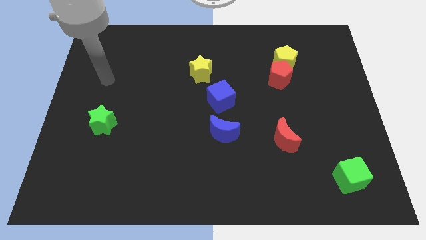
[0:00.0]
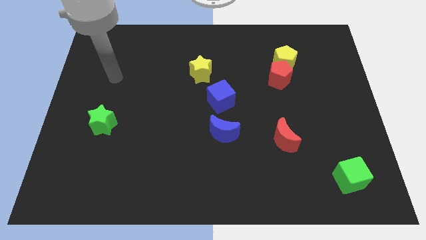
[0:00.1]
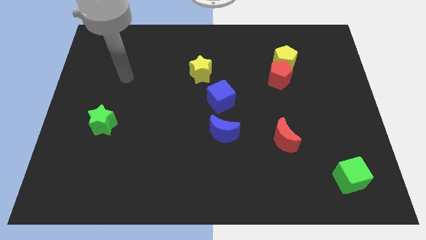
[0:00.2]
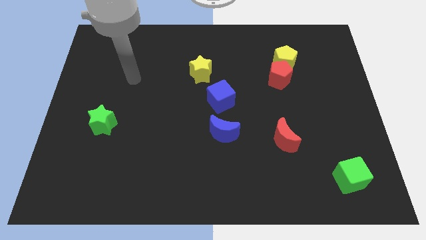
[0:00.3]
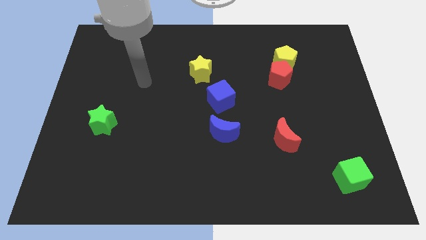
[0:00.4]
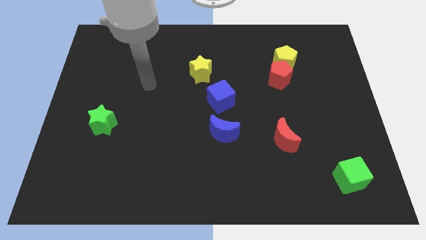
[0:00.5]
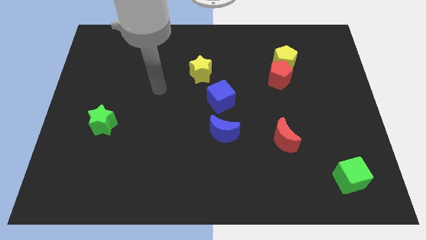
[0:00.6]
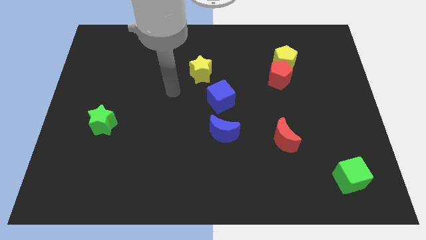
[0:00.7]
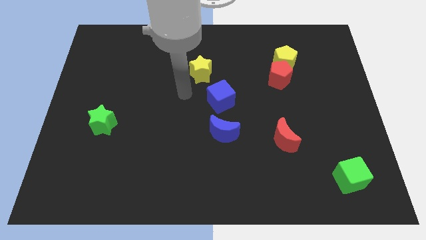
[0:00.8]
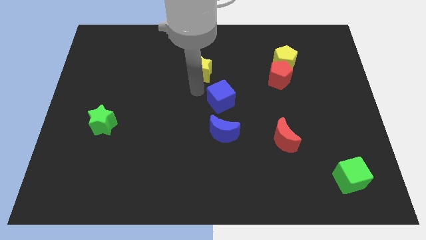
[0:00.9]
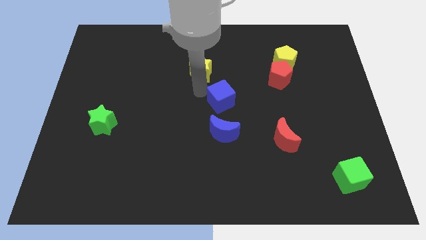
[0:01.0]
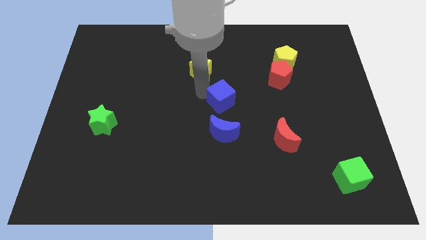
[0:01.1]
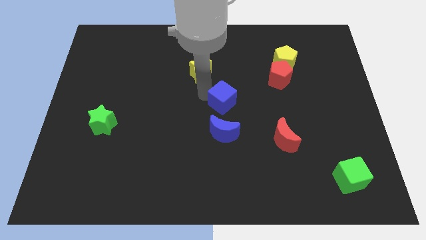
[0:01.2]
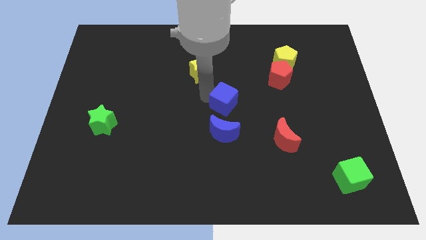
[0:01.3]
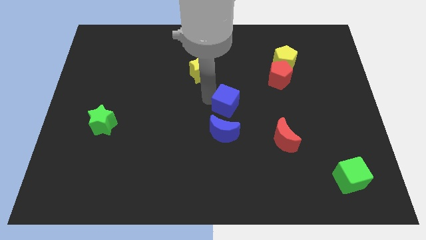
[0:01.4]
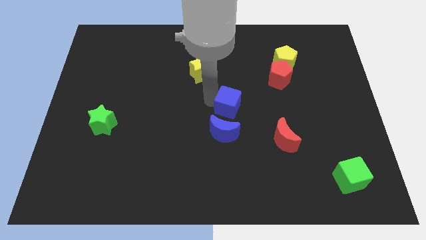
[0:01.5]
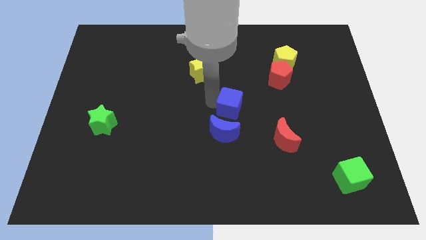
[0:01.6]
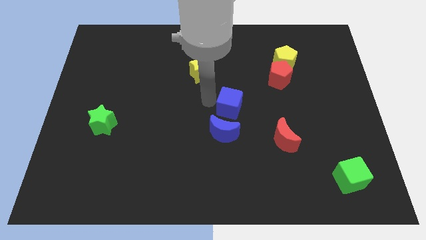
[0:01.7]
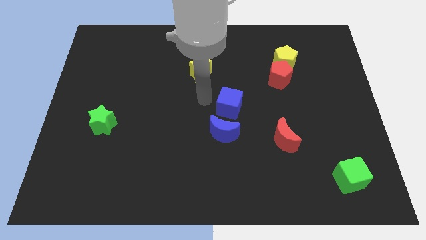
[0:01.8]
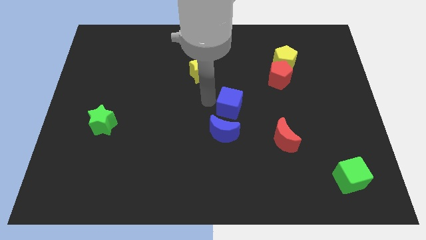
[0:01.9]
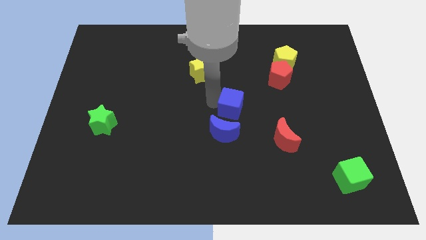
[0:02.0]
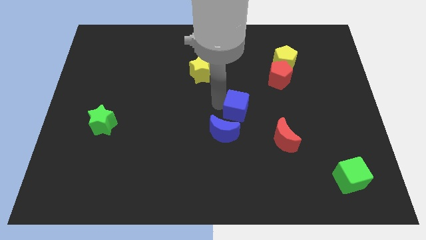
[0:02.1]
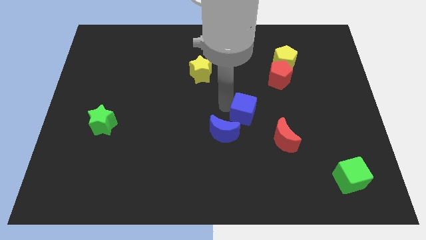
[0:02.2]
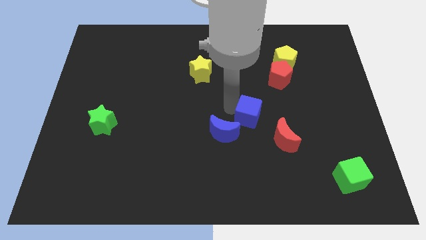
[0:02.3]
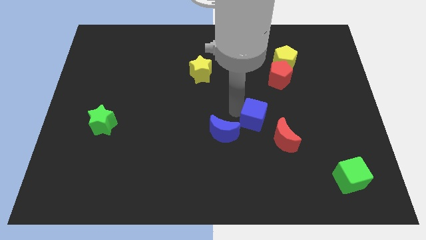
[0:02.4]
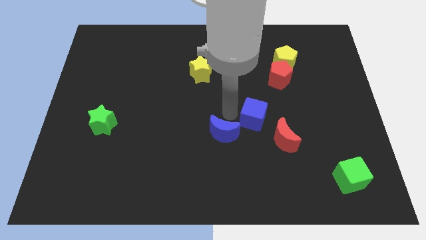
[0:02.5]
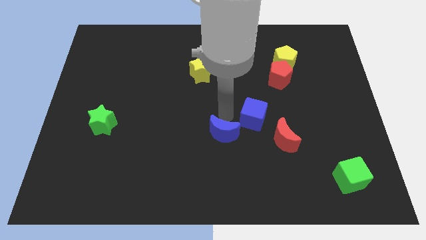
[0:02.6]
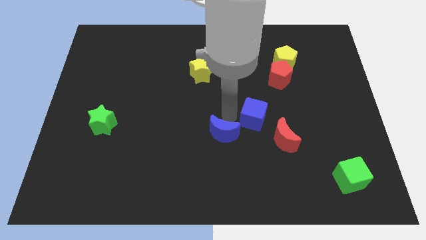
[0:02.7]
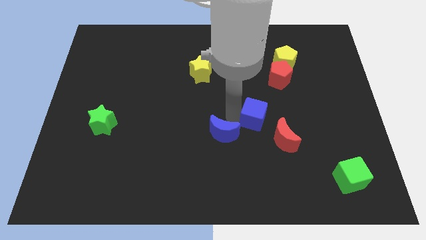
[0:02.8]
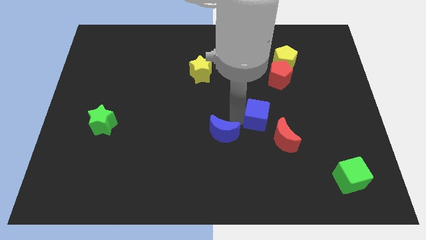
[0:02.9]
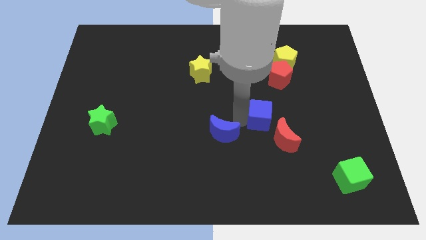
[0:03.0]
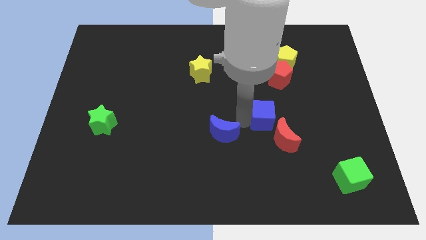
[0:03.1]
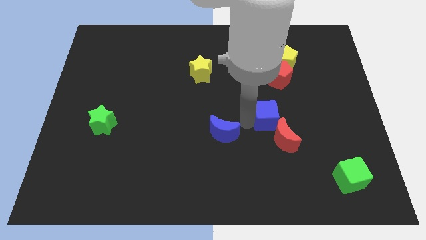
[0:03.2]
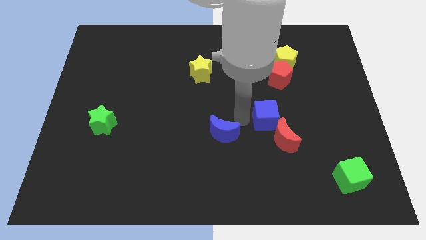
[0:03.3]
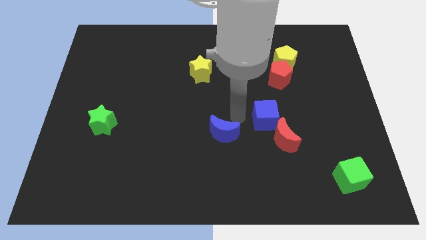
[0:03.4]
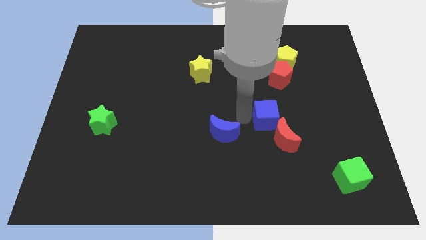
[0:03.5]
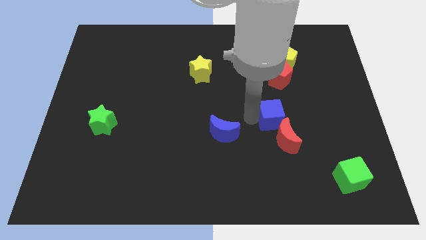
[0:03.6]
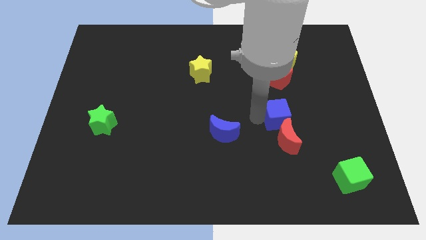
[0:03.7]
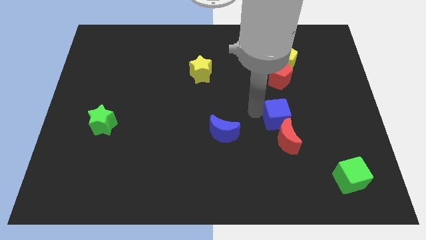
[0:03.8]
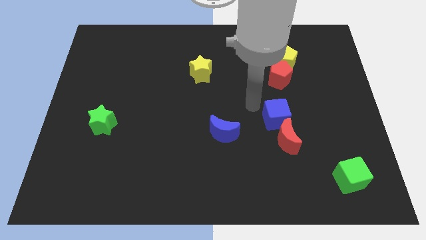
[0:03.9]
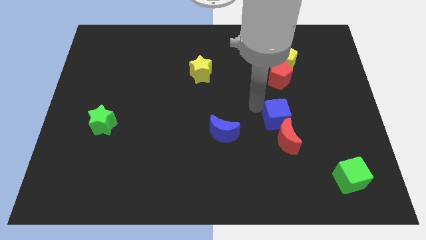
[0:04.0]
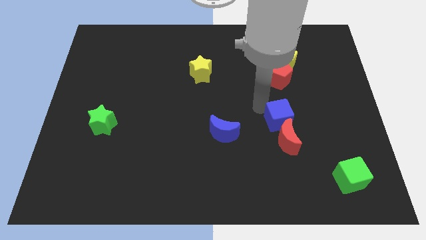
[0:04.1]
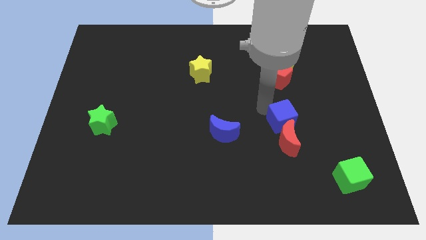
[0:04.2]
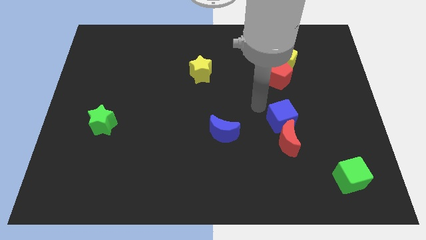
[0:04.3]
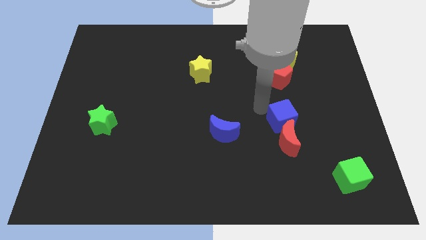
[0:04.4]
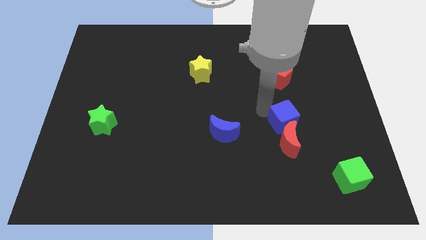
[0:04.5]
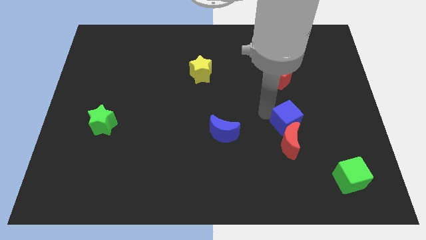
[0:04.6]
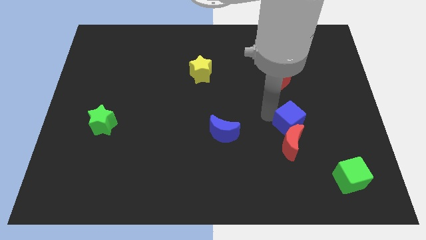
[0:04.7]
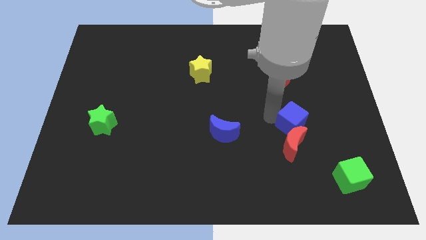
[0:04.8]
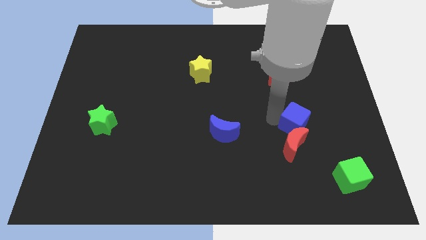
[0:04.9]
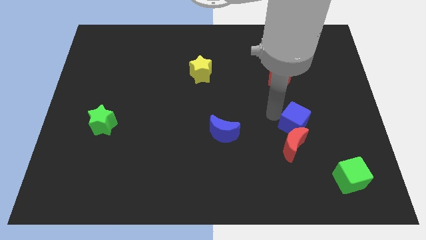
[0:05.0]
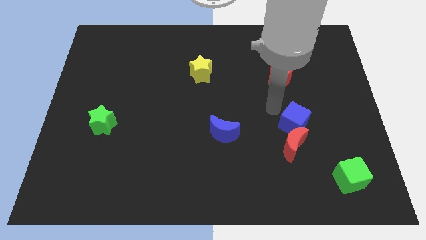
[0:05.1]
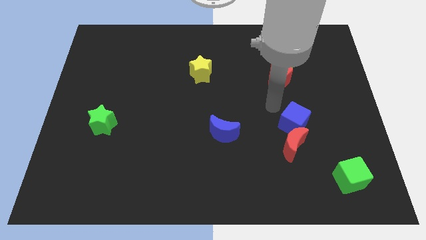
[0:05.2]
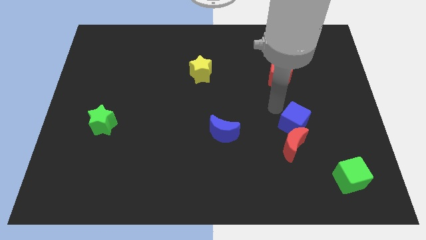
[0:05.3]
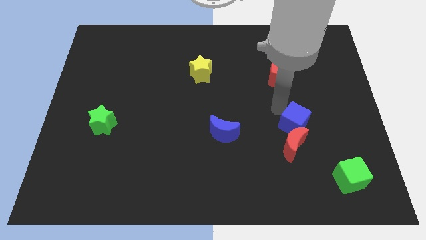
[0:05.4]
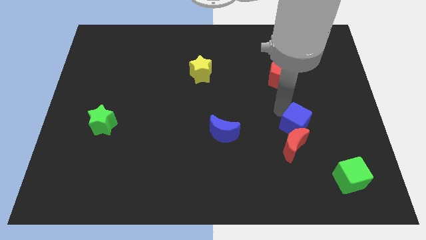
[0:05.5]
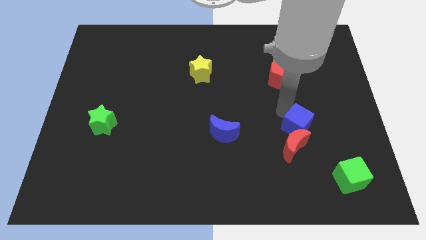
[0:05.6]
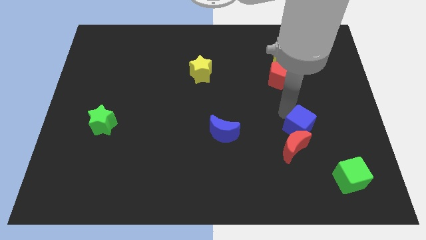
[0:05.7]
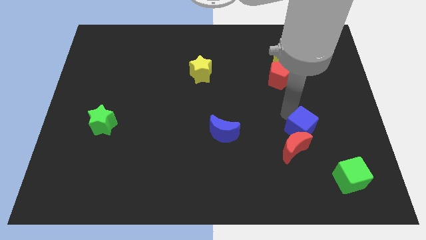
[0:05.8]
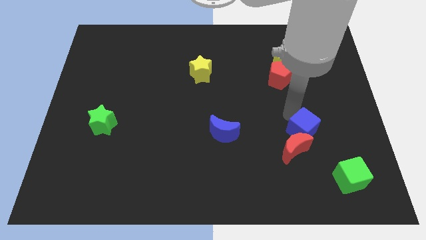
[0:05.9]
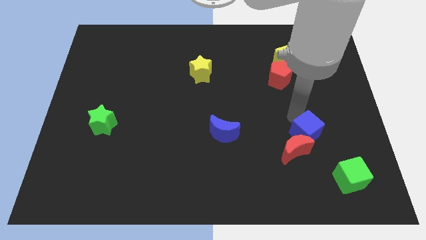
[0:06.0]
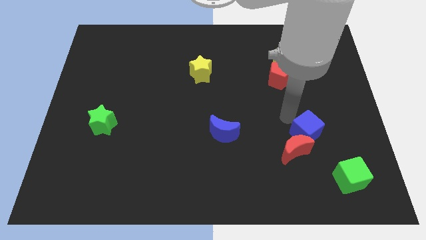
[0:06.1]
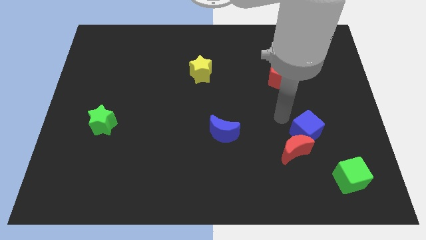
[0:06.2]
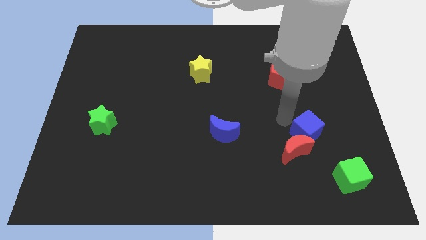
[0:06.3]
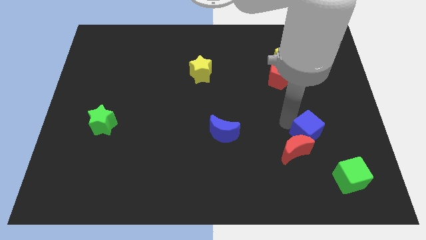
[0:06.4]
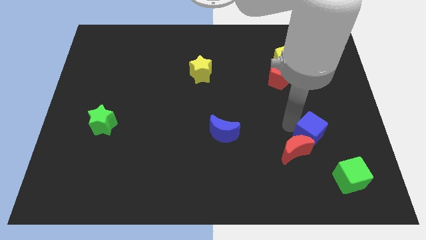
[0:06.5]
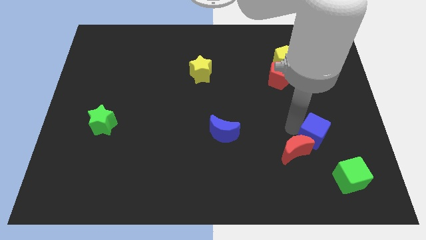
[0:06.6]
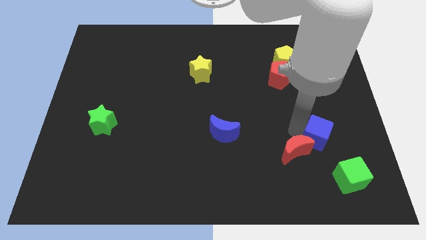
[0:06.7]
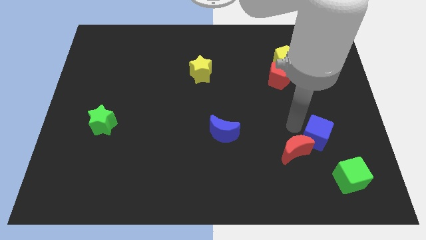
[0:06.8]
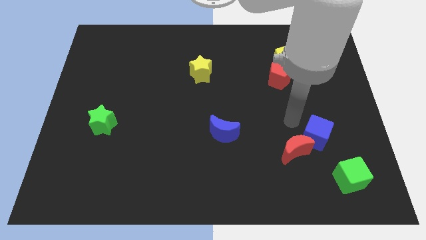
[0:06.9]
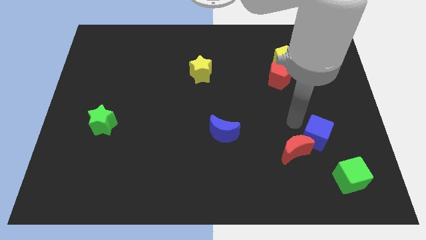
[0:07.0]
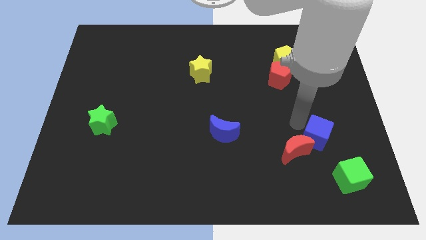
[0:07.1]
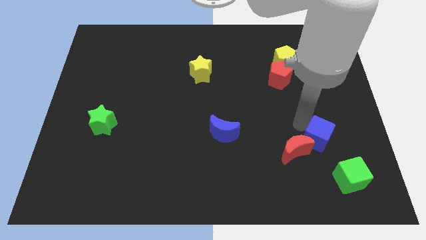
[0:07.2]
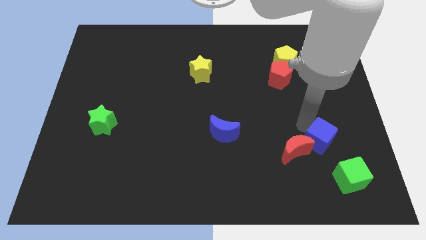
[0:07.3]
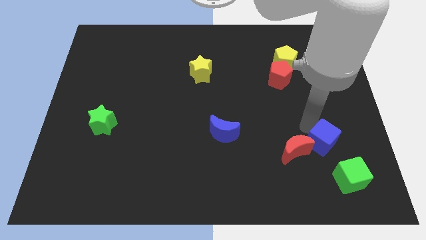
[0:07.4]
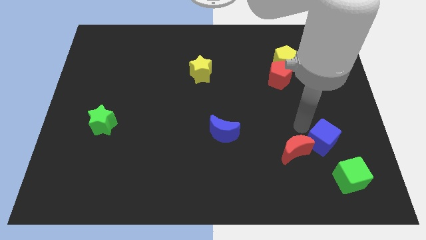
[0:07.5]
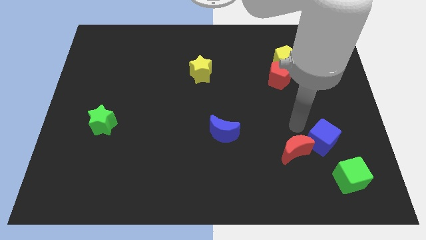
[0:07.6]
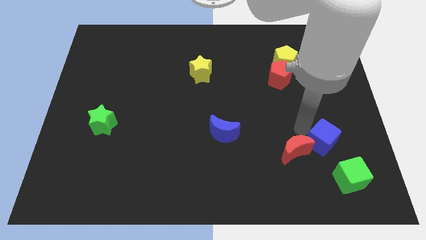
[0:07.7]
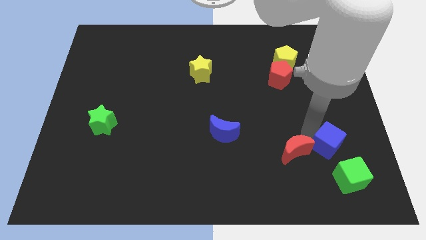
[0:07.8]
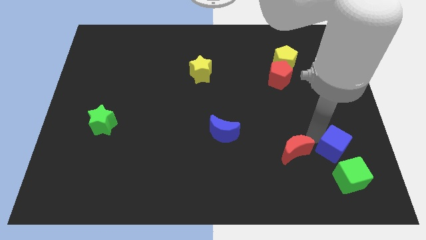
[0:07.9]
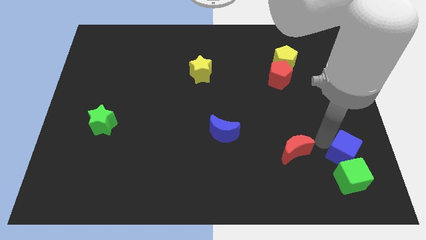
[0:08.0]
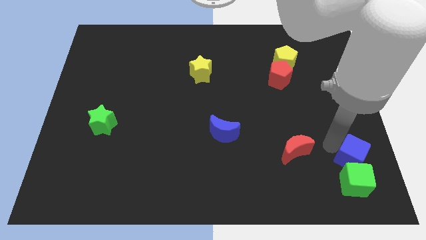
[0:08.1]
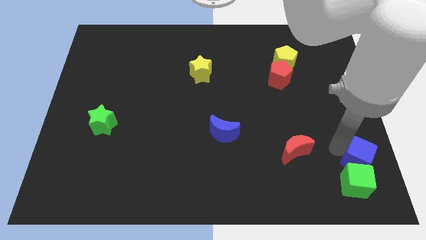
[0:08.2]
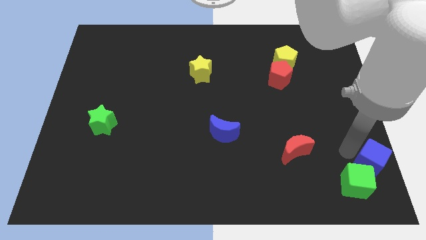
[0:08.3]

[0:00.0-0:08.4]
move the blue cube to the bottom right of the board
